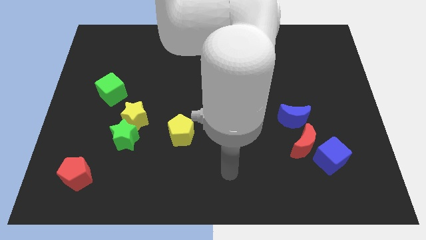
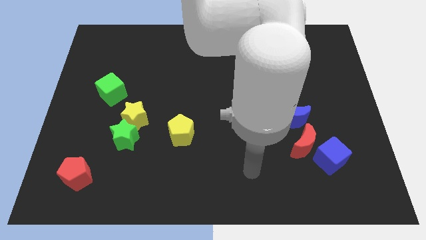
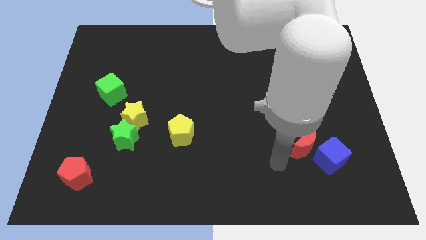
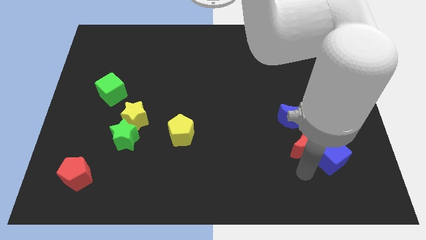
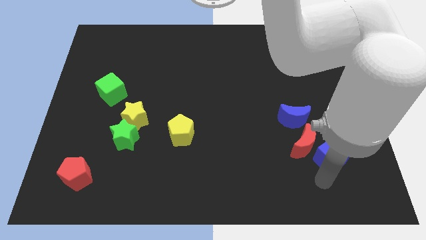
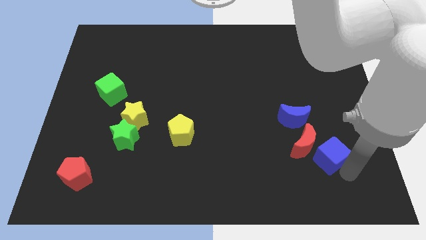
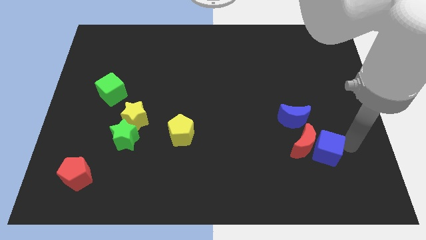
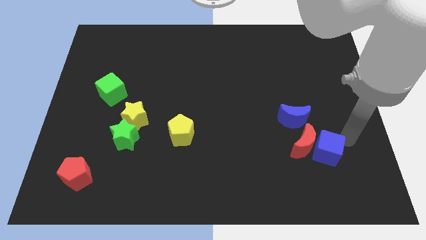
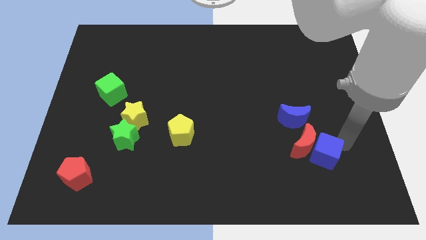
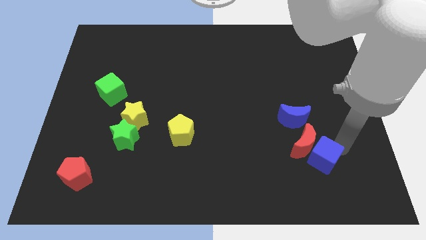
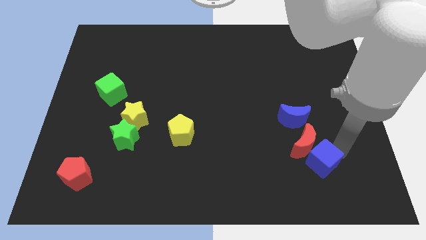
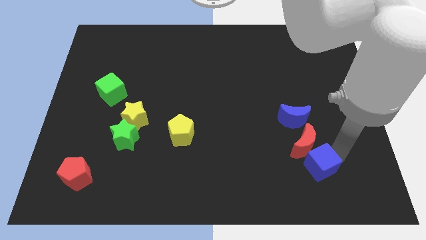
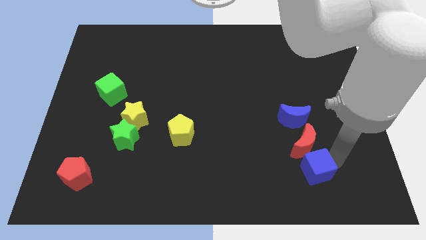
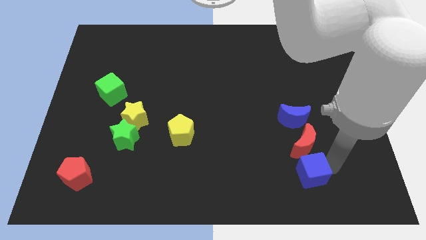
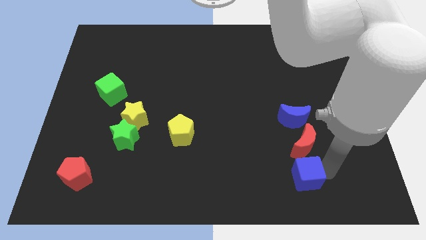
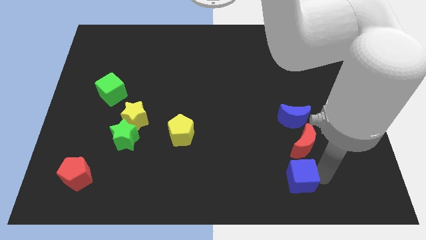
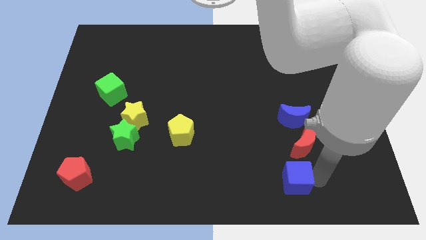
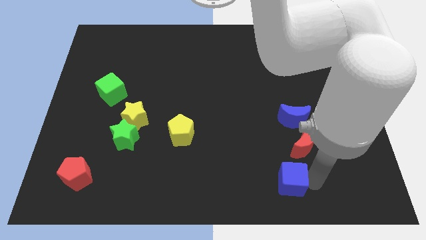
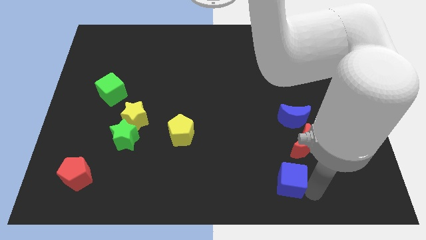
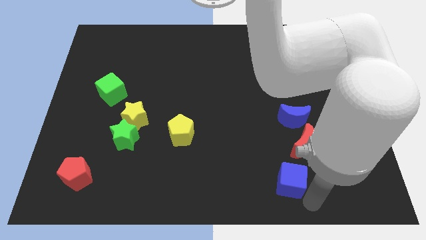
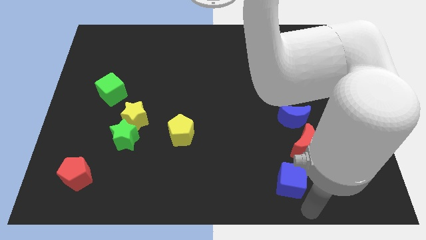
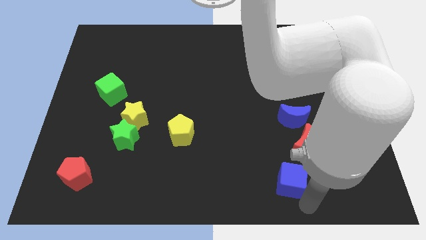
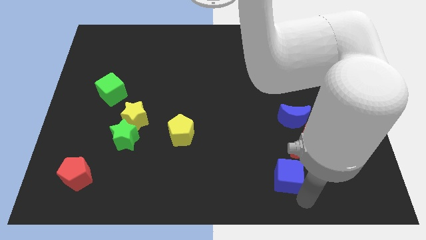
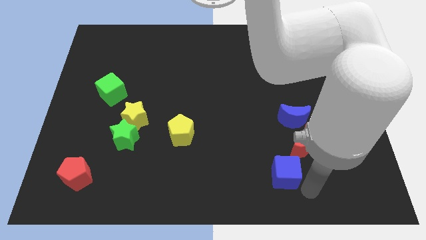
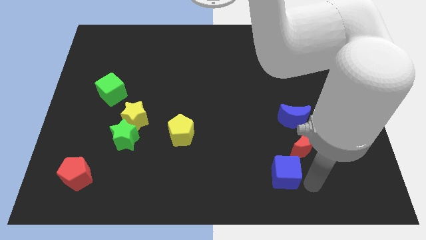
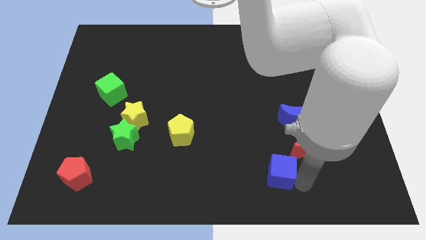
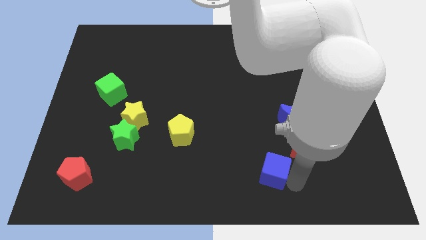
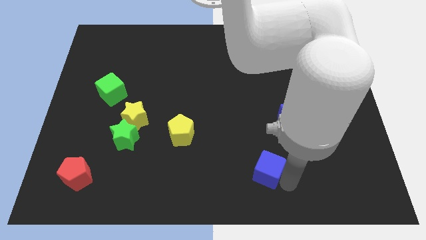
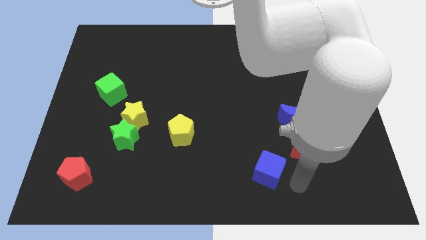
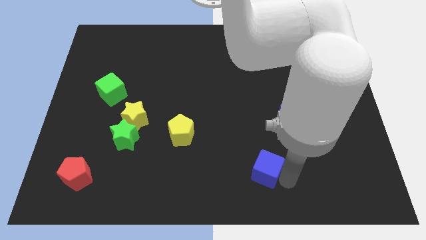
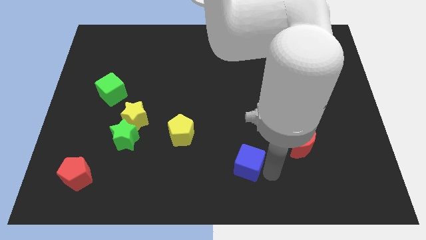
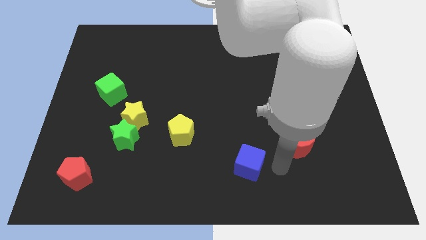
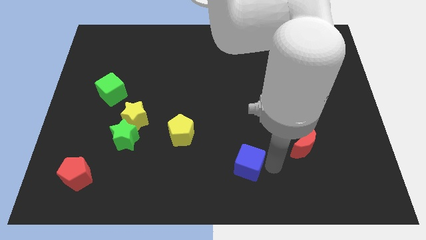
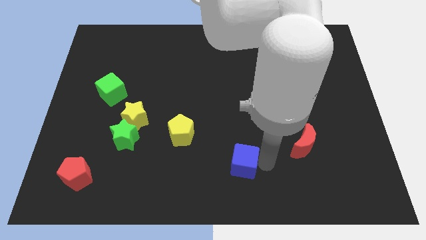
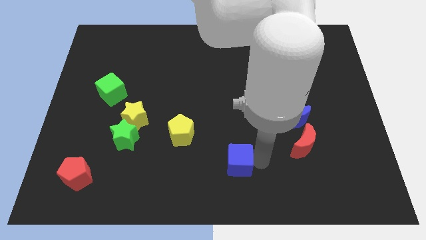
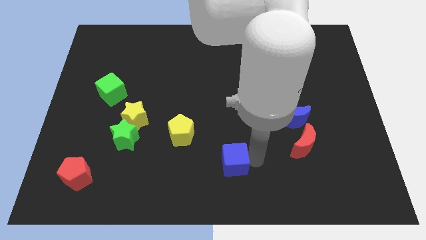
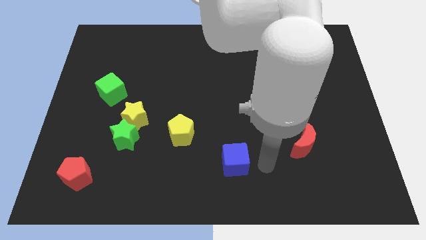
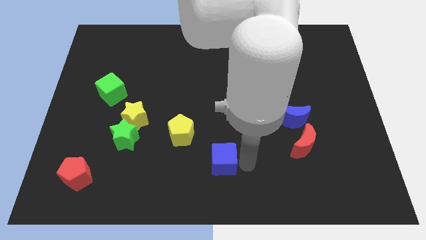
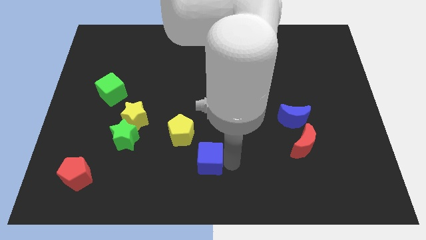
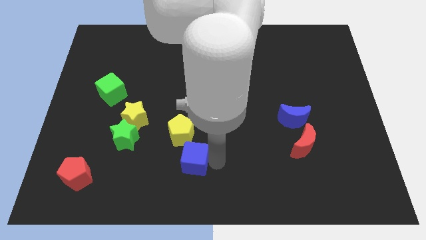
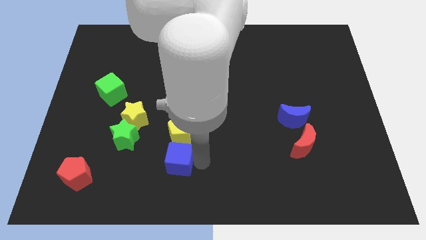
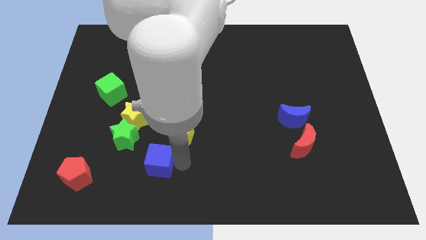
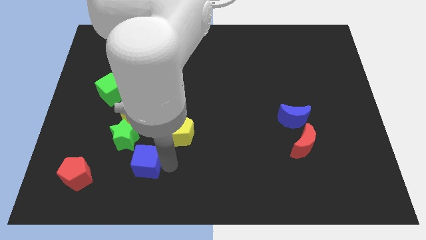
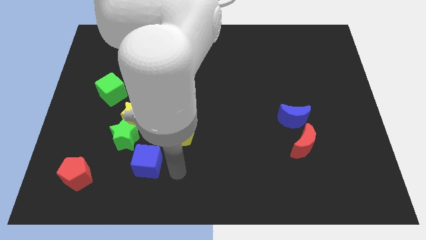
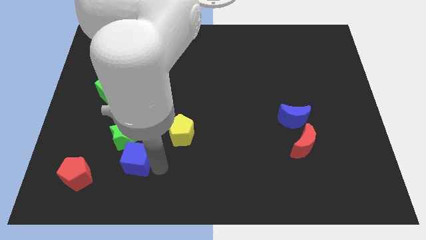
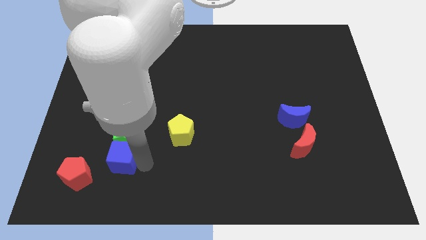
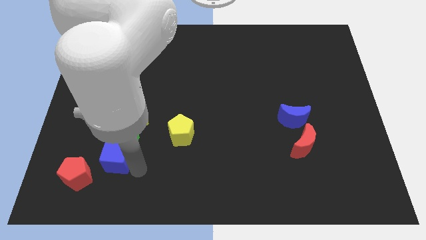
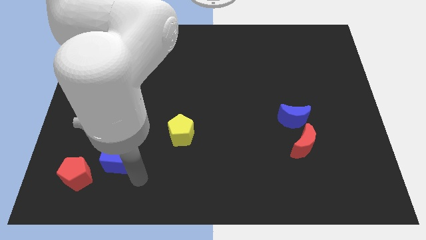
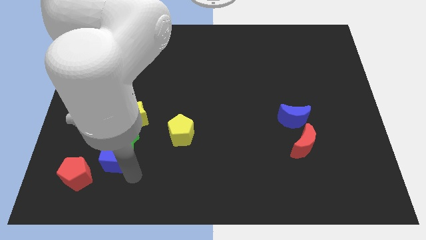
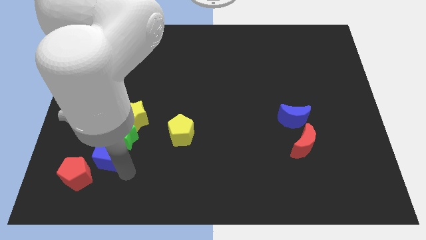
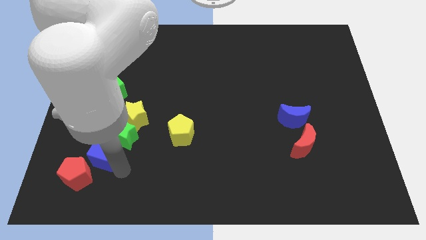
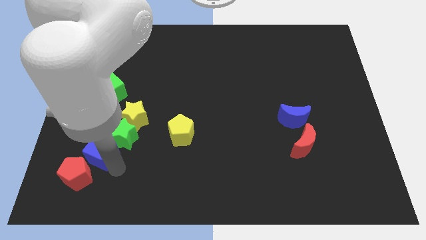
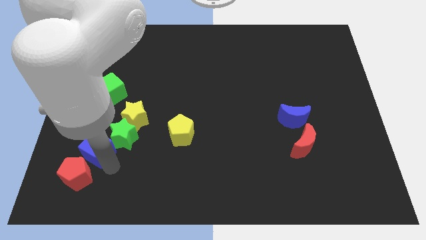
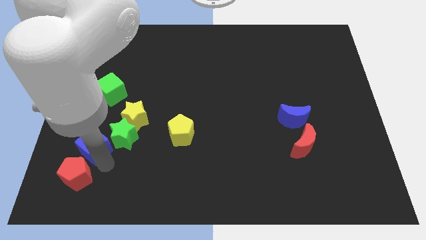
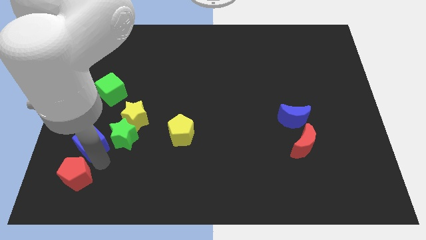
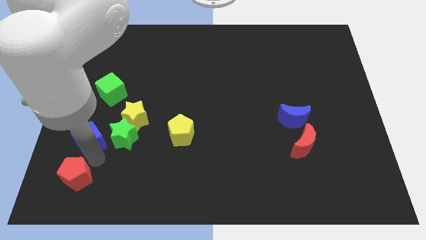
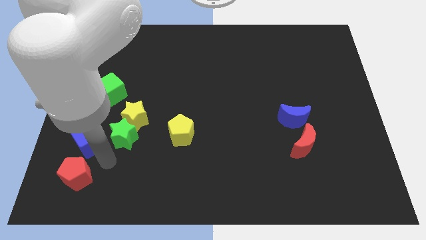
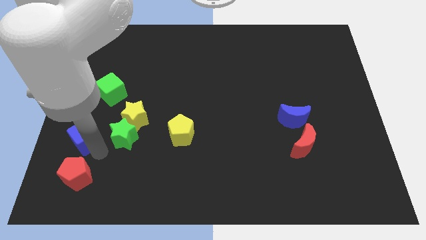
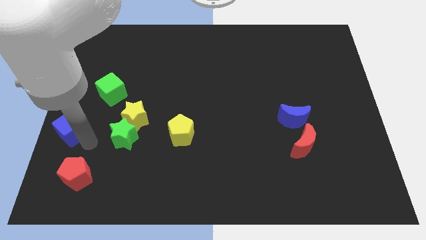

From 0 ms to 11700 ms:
put the blue cube to the center left

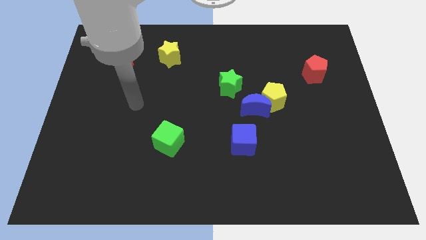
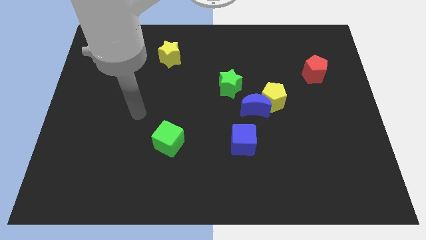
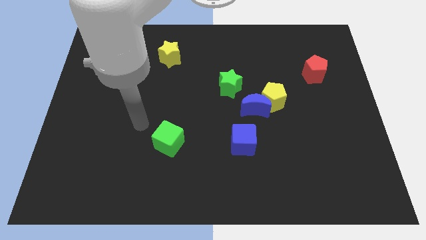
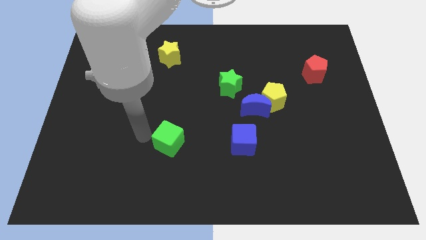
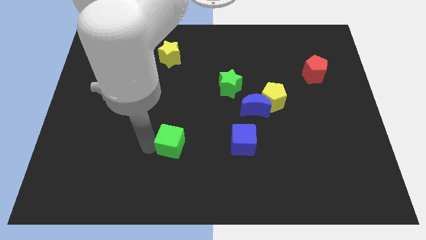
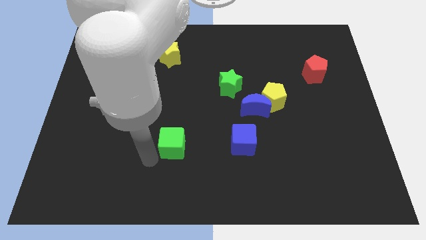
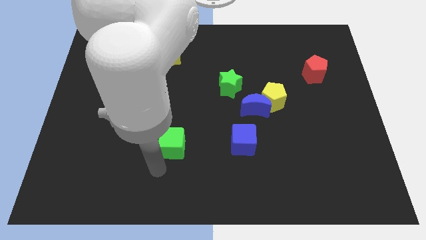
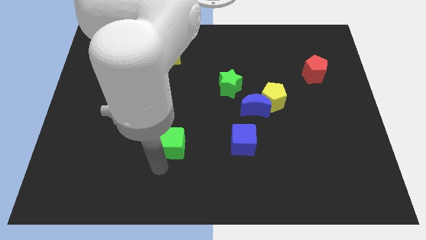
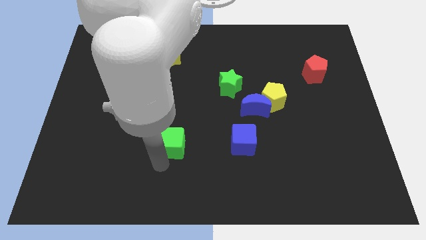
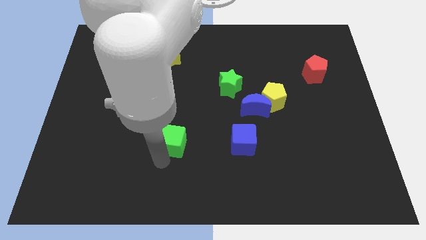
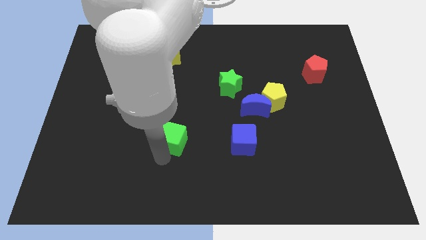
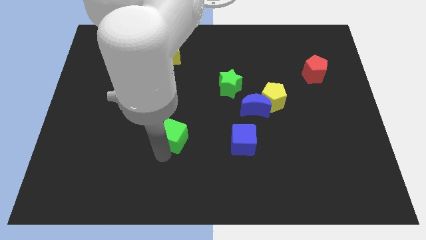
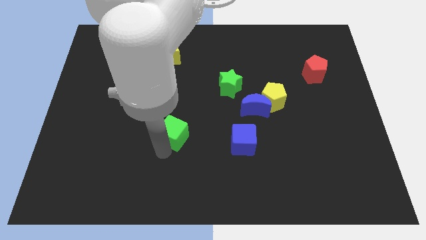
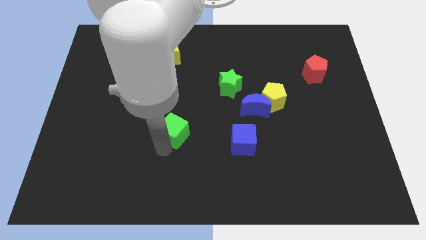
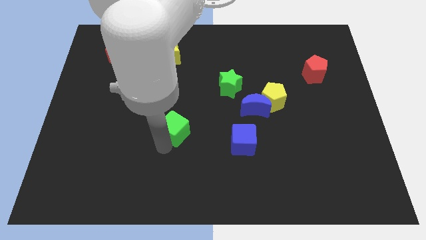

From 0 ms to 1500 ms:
put the green cube to the center
